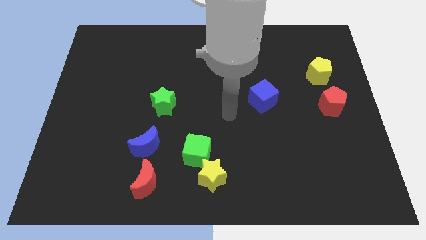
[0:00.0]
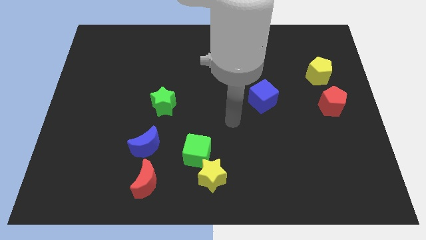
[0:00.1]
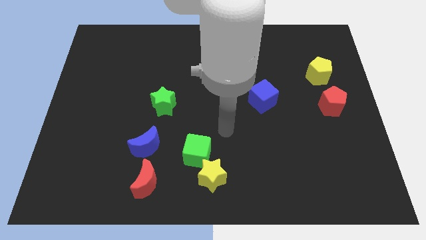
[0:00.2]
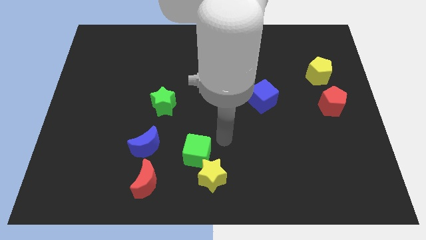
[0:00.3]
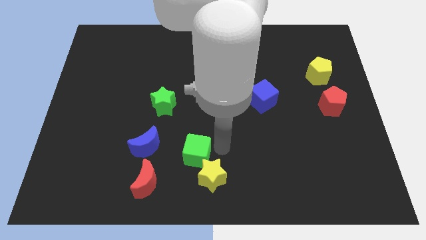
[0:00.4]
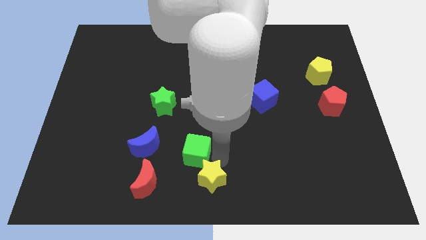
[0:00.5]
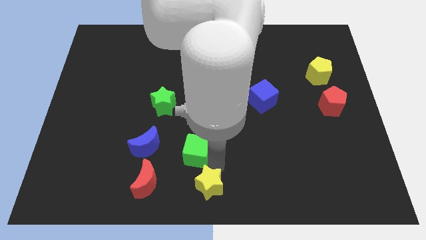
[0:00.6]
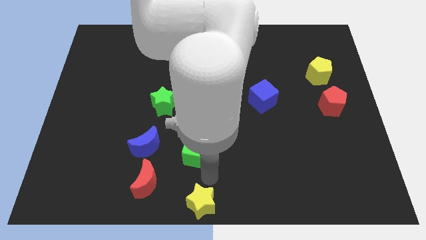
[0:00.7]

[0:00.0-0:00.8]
separate the green cube from the yellow star

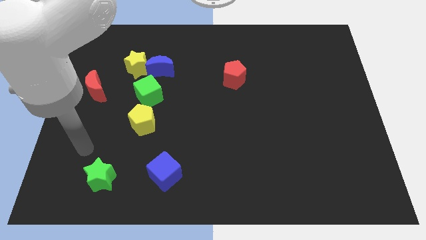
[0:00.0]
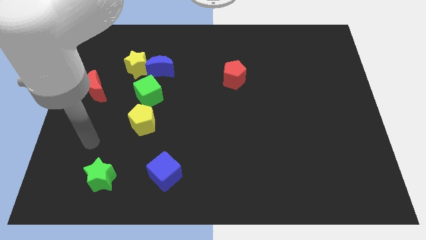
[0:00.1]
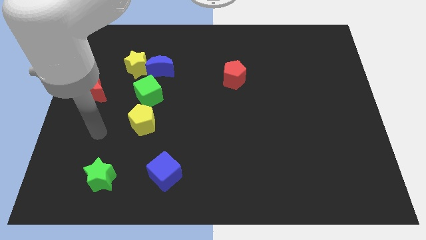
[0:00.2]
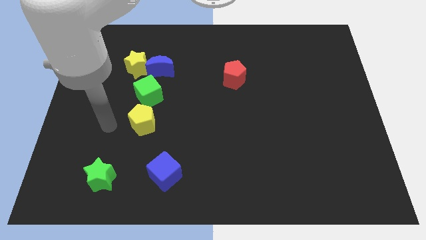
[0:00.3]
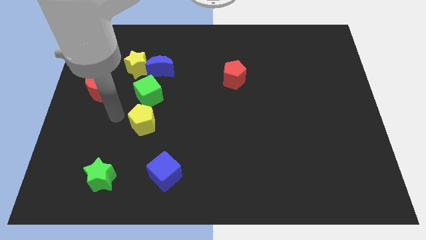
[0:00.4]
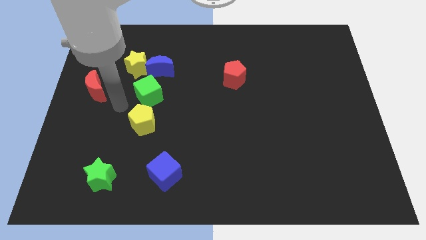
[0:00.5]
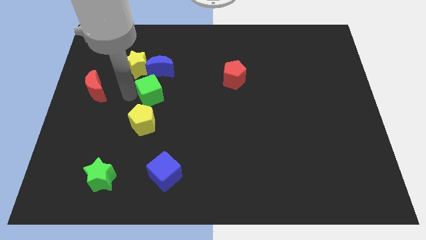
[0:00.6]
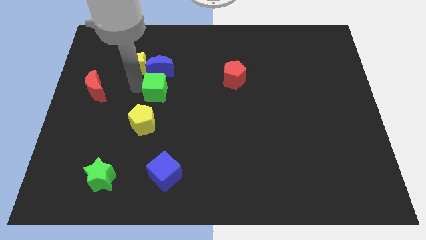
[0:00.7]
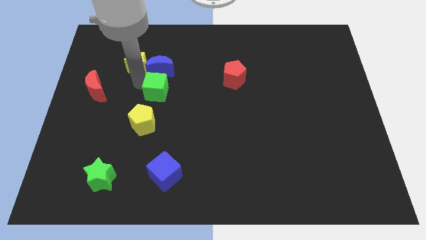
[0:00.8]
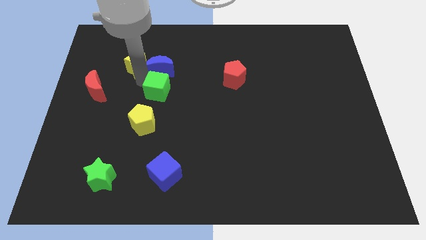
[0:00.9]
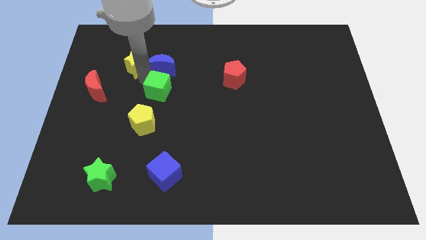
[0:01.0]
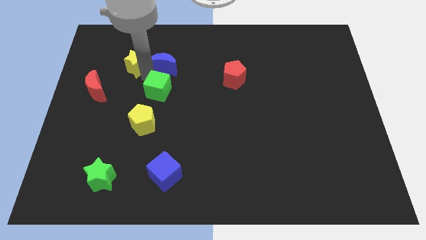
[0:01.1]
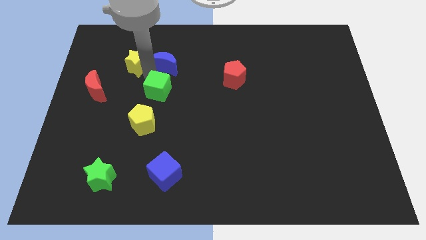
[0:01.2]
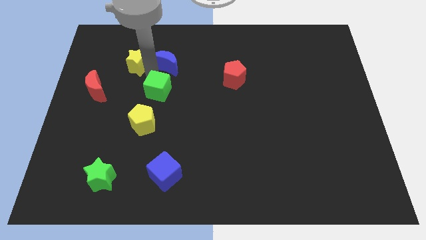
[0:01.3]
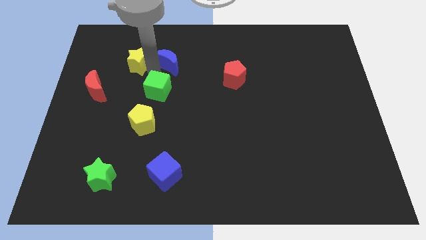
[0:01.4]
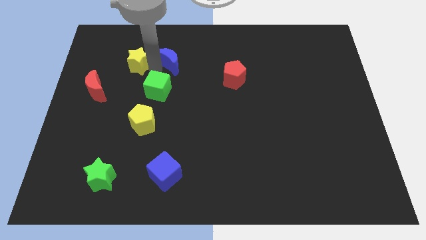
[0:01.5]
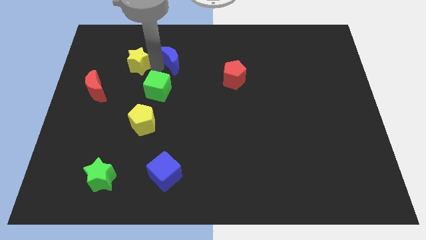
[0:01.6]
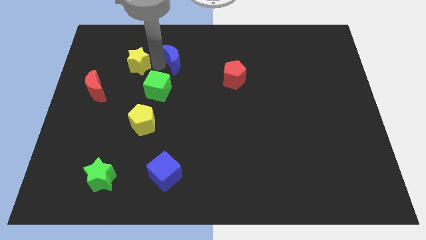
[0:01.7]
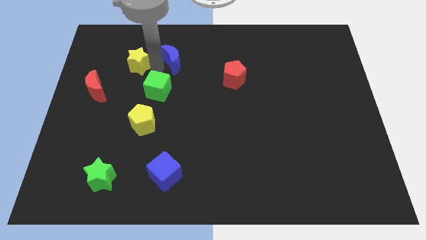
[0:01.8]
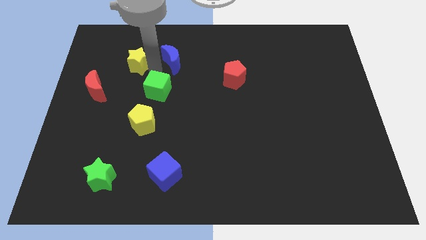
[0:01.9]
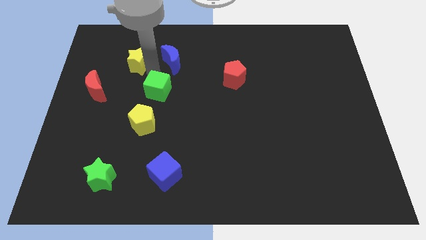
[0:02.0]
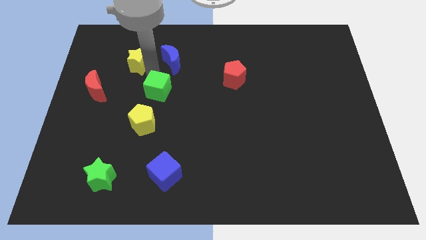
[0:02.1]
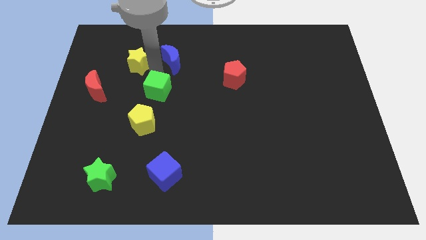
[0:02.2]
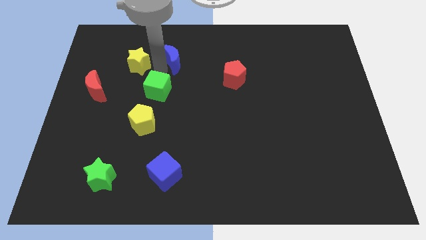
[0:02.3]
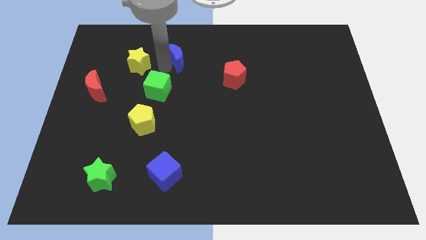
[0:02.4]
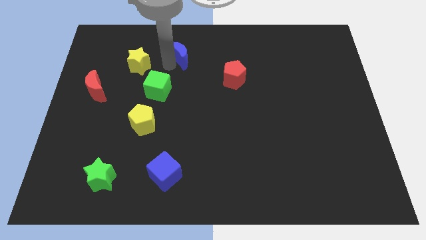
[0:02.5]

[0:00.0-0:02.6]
separate the blue moon from the yellow star and green cube

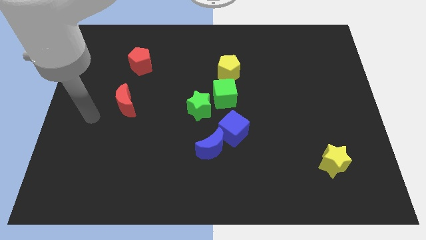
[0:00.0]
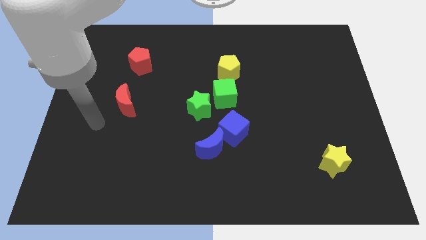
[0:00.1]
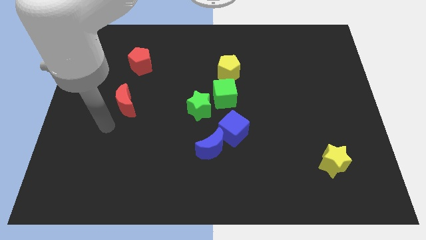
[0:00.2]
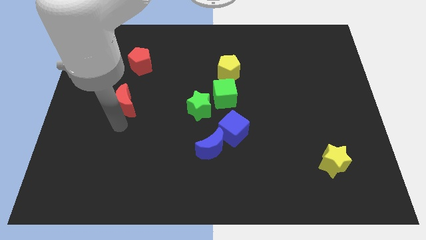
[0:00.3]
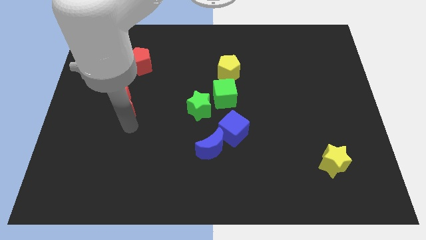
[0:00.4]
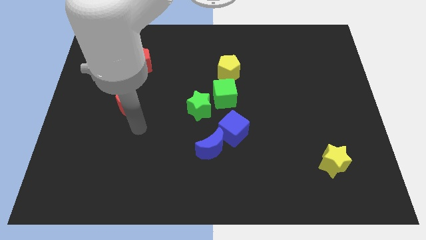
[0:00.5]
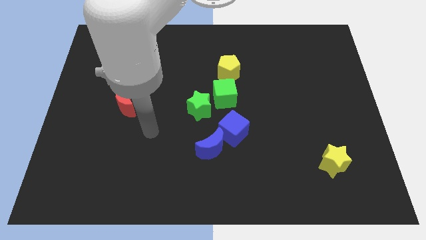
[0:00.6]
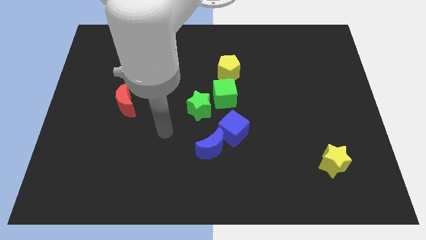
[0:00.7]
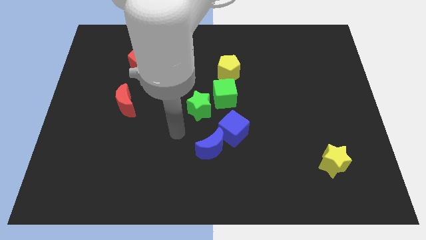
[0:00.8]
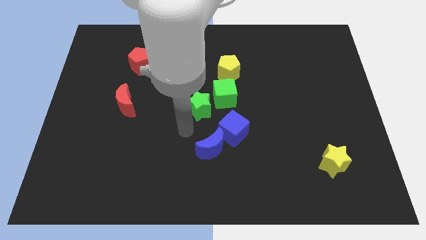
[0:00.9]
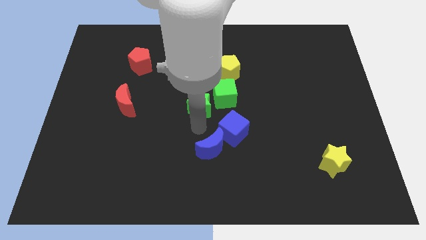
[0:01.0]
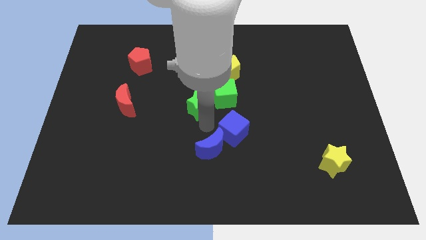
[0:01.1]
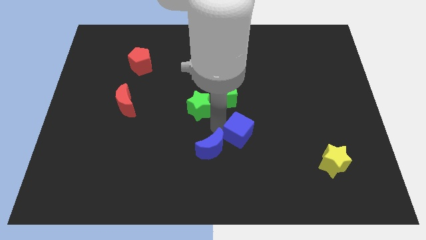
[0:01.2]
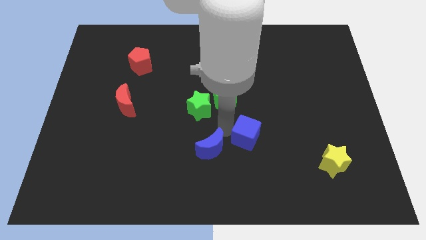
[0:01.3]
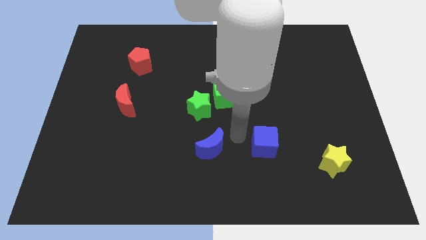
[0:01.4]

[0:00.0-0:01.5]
pull the blue moon apart from the blue cube

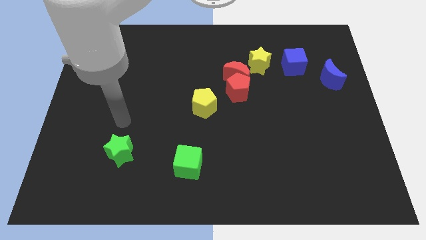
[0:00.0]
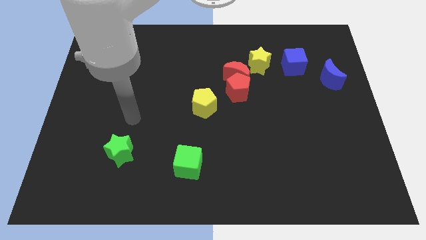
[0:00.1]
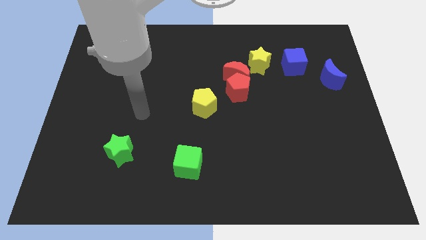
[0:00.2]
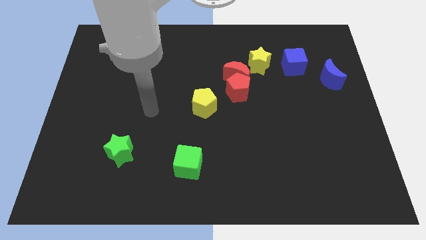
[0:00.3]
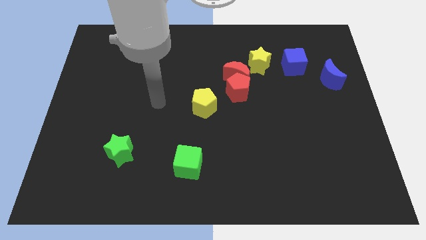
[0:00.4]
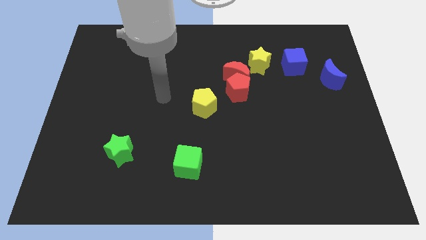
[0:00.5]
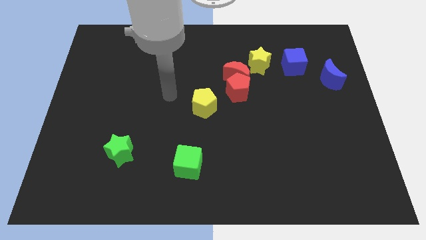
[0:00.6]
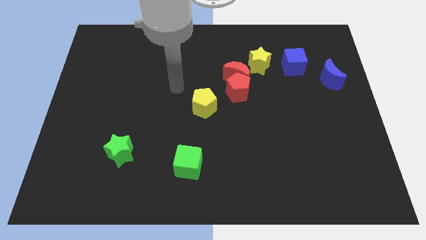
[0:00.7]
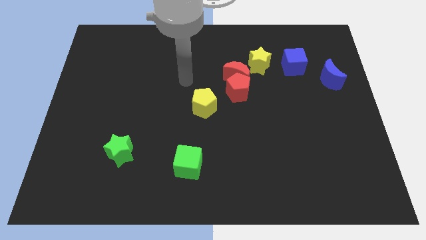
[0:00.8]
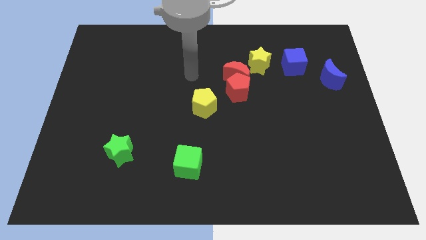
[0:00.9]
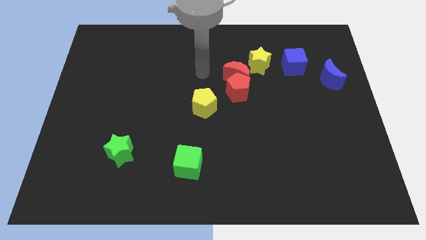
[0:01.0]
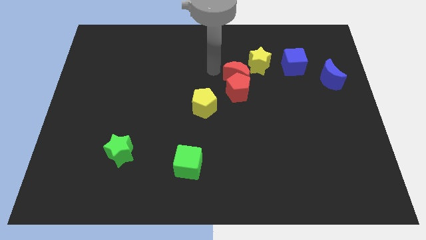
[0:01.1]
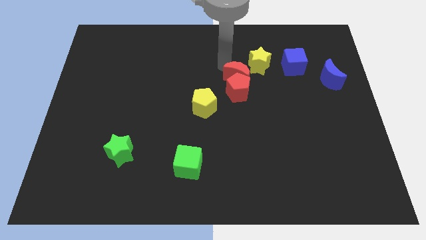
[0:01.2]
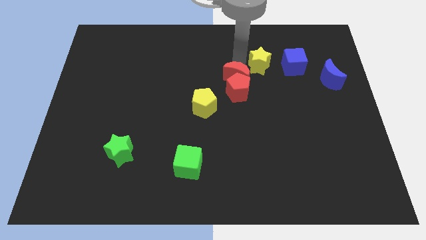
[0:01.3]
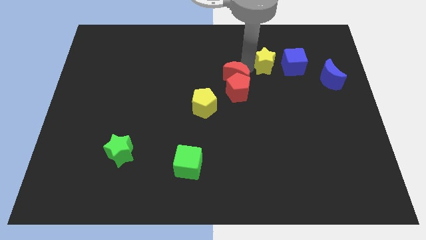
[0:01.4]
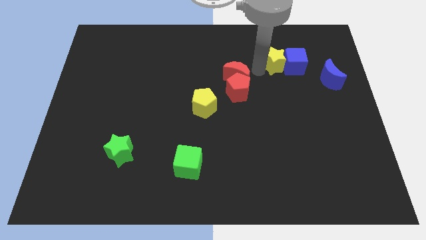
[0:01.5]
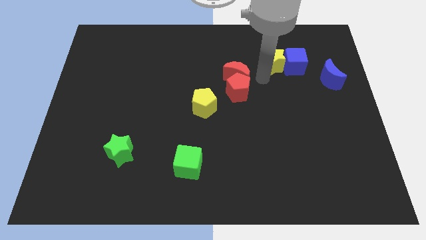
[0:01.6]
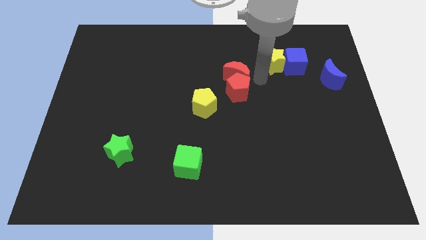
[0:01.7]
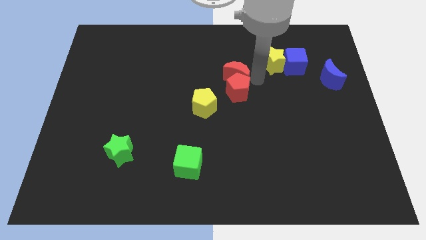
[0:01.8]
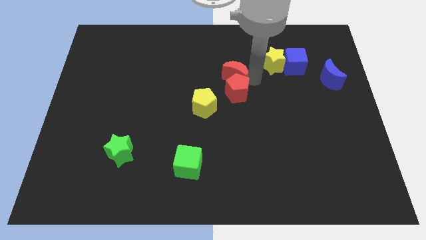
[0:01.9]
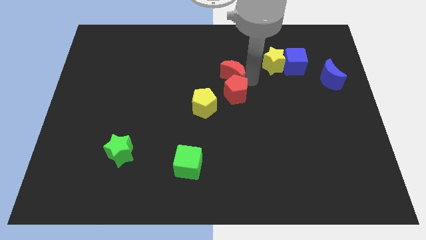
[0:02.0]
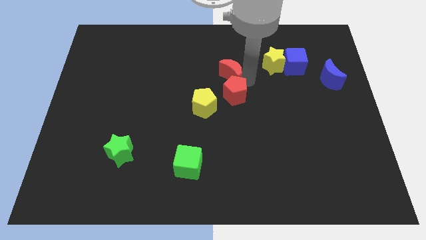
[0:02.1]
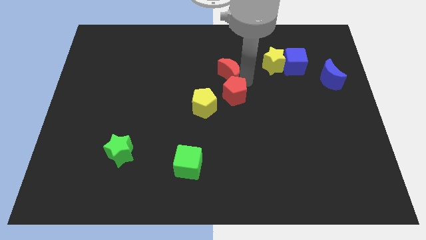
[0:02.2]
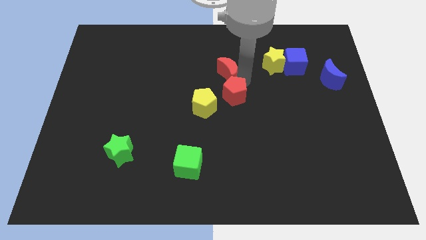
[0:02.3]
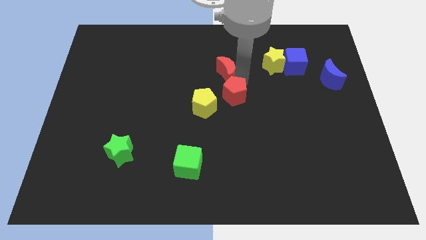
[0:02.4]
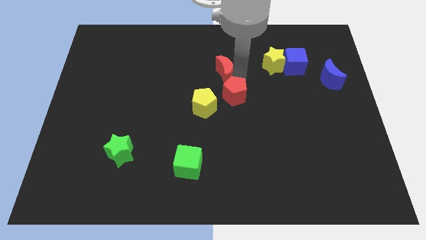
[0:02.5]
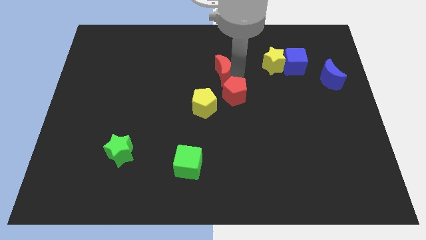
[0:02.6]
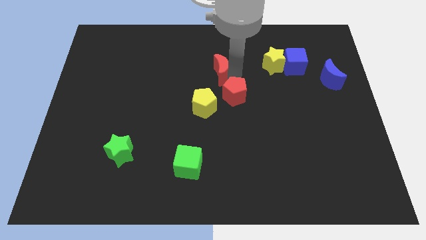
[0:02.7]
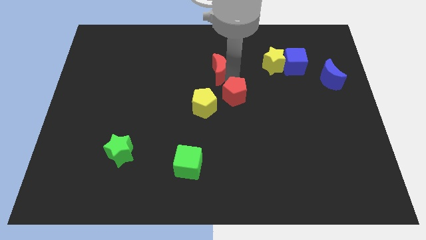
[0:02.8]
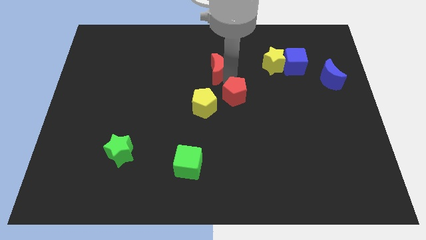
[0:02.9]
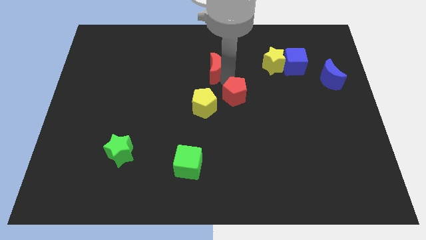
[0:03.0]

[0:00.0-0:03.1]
move the red moon away from the red pentagon and yellow star

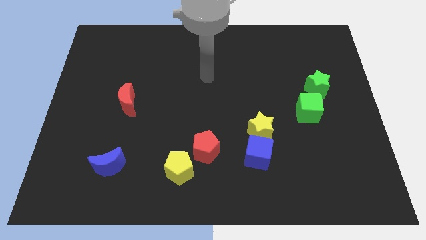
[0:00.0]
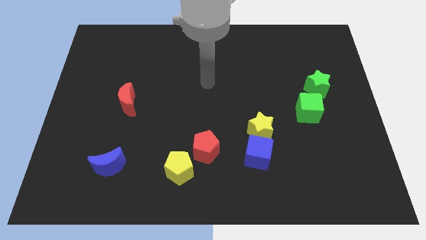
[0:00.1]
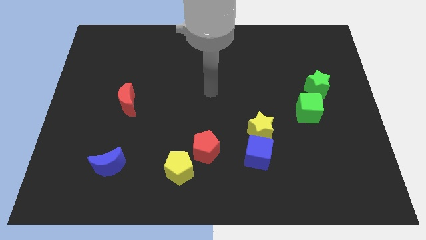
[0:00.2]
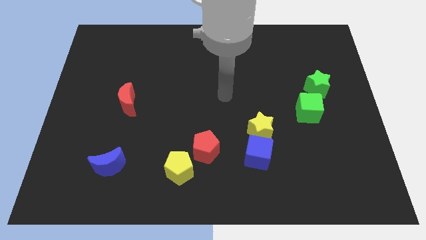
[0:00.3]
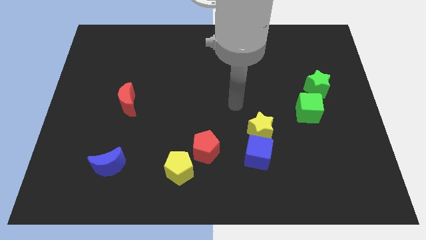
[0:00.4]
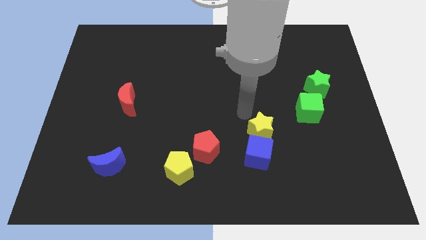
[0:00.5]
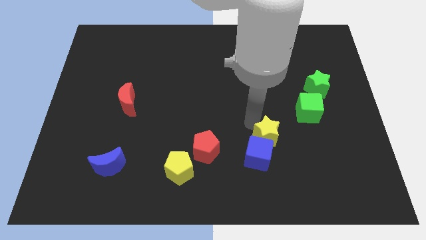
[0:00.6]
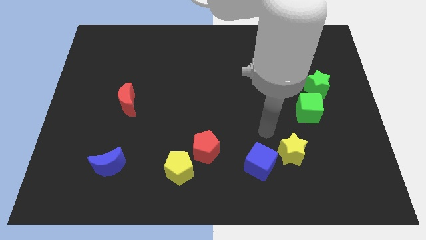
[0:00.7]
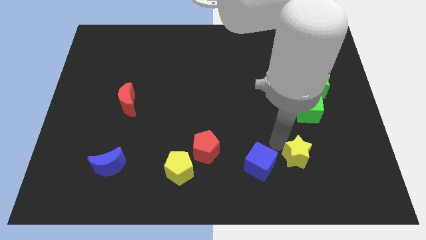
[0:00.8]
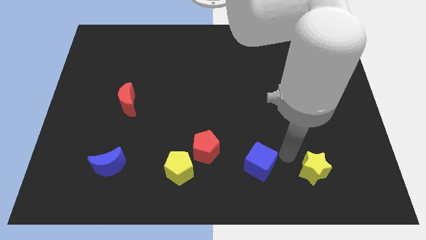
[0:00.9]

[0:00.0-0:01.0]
separate the blue cube from the yellow star

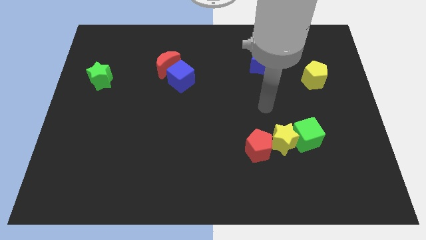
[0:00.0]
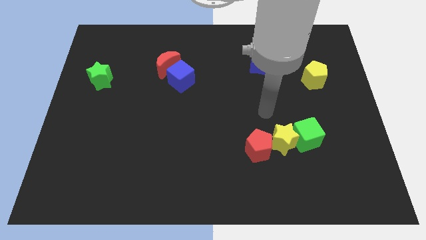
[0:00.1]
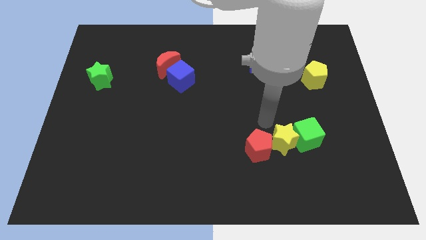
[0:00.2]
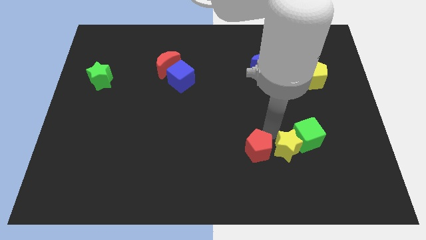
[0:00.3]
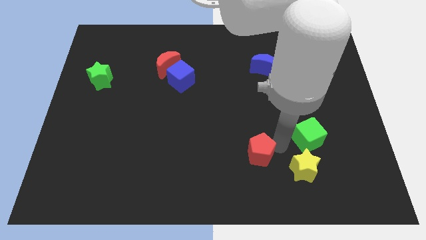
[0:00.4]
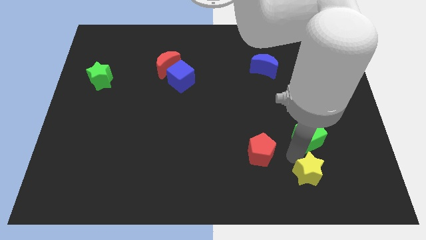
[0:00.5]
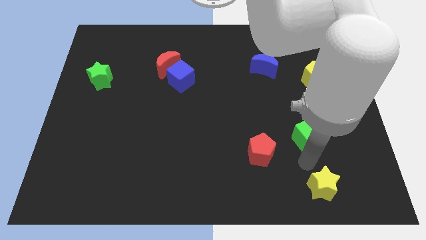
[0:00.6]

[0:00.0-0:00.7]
move the green cube away from the yellow star
